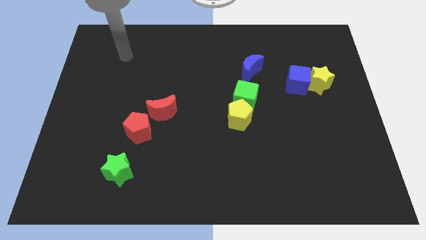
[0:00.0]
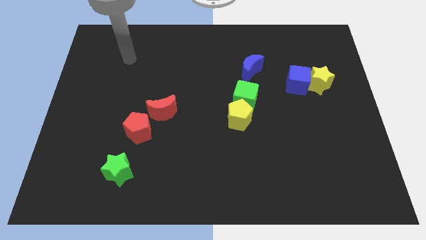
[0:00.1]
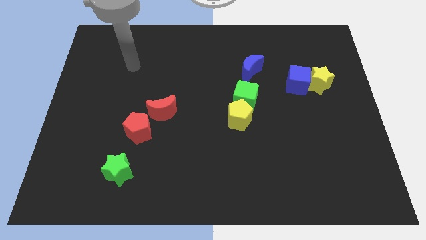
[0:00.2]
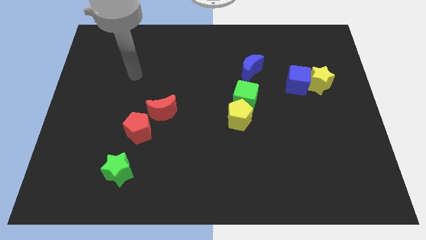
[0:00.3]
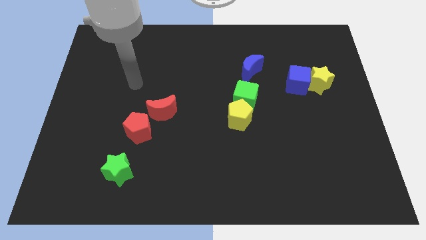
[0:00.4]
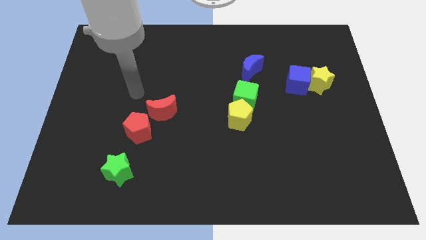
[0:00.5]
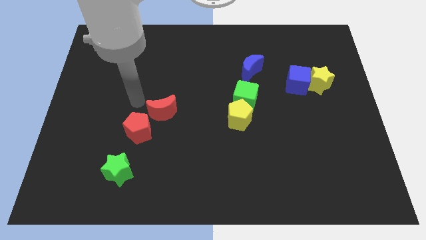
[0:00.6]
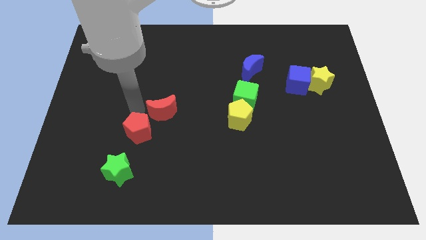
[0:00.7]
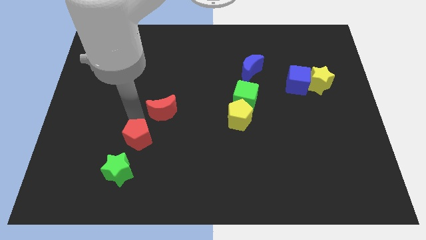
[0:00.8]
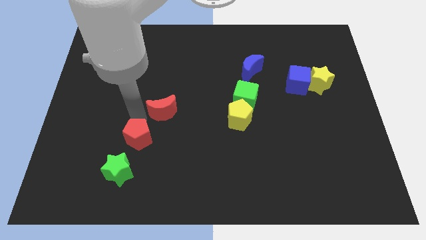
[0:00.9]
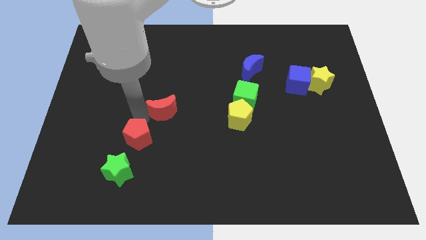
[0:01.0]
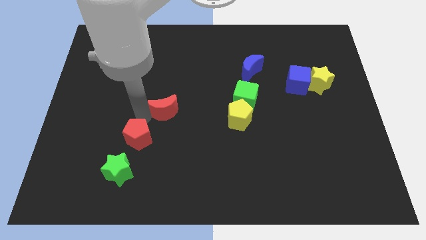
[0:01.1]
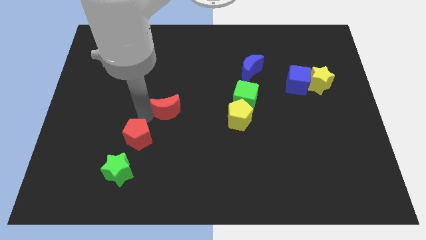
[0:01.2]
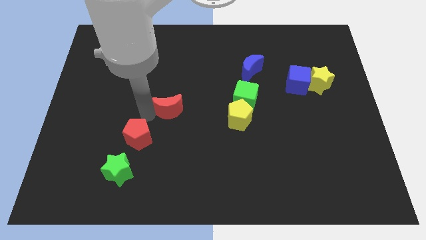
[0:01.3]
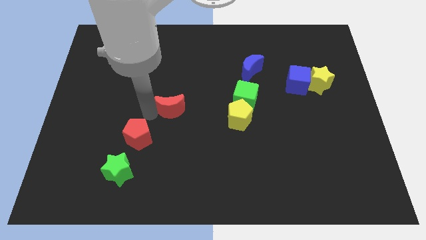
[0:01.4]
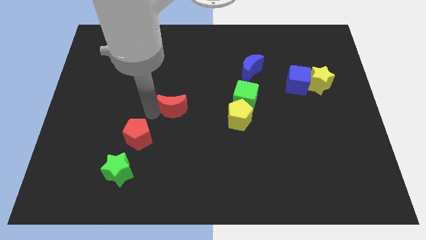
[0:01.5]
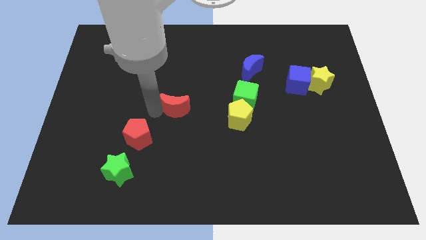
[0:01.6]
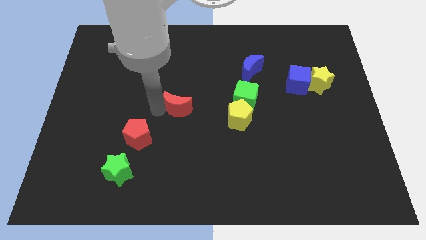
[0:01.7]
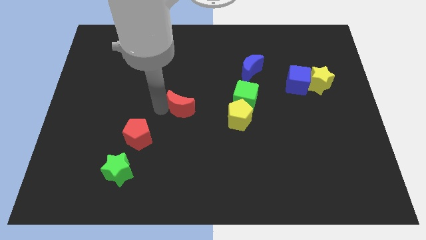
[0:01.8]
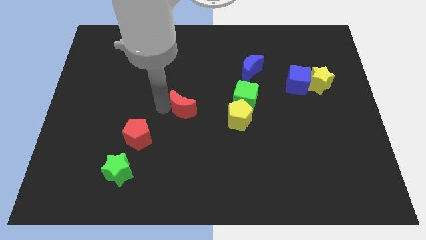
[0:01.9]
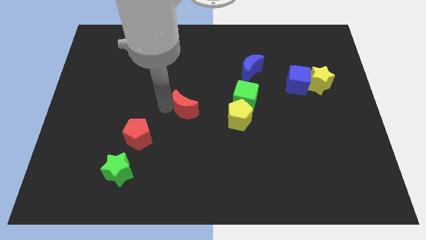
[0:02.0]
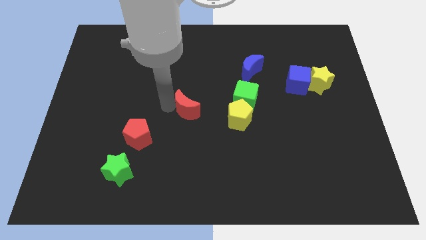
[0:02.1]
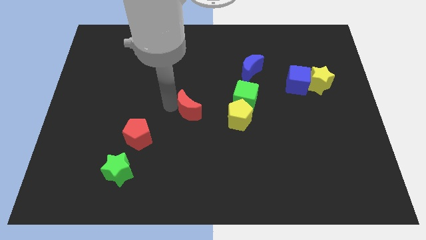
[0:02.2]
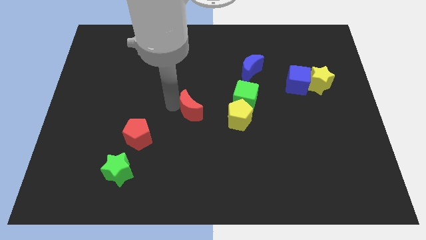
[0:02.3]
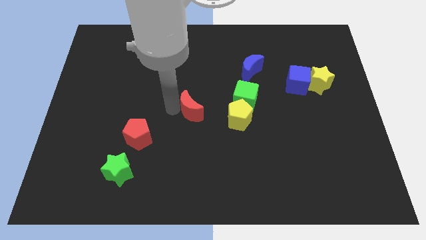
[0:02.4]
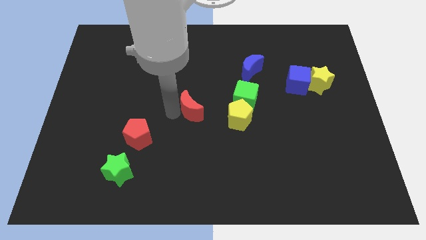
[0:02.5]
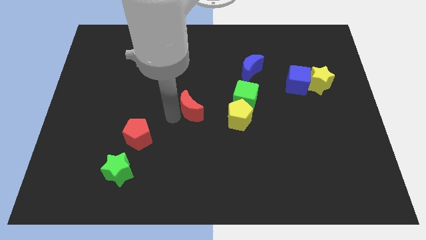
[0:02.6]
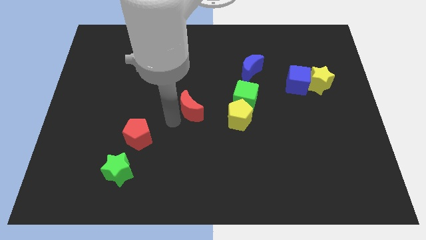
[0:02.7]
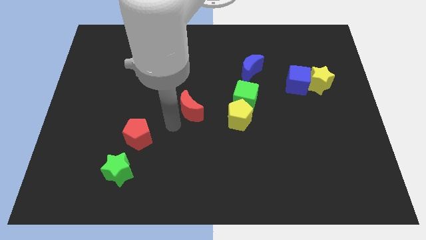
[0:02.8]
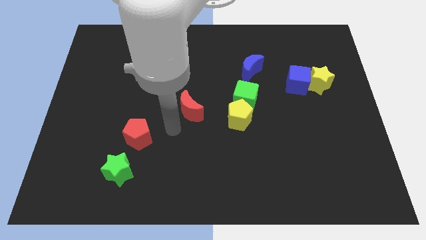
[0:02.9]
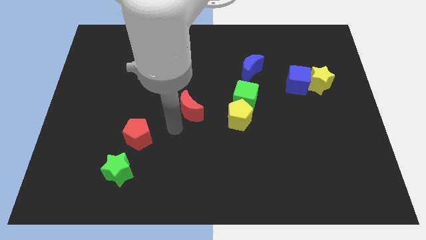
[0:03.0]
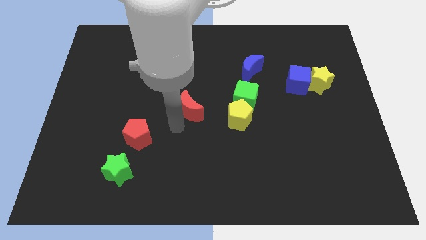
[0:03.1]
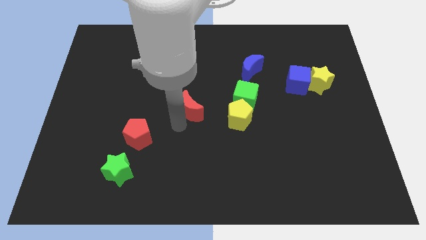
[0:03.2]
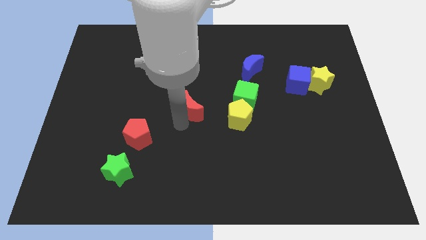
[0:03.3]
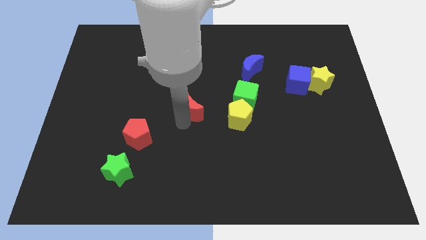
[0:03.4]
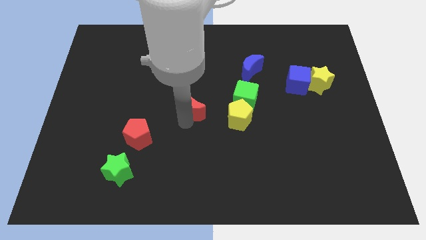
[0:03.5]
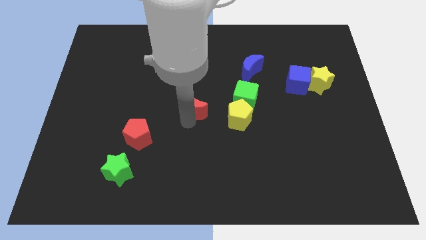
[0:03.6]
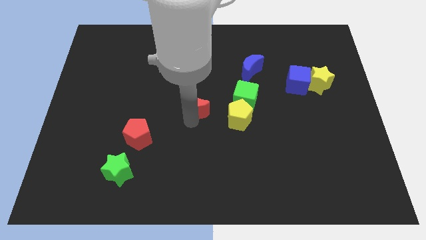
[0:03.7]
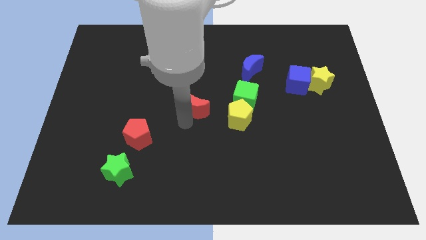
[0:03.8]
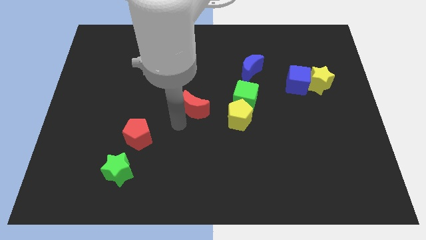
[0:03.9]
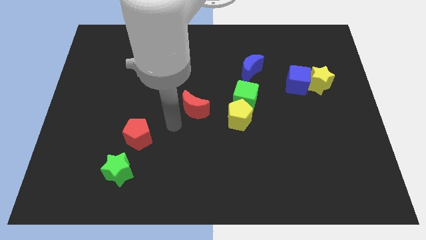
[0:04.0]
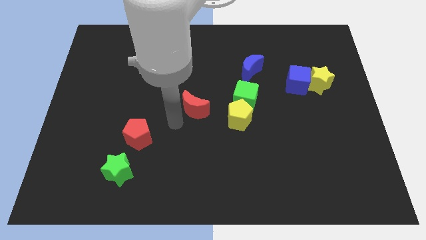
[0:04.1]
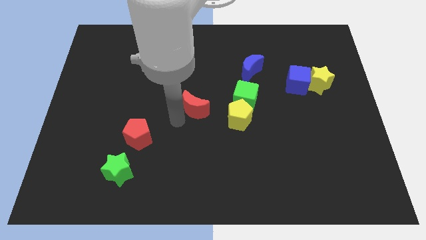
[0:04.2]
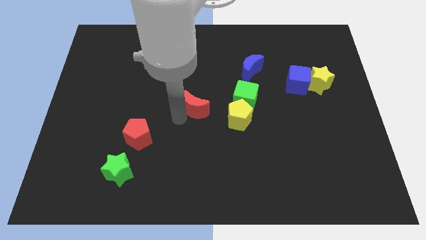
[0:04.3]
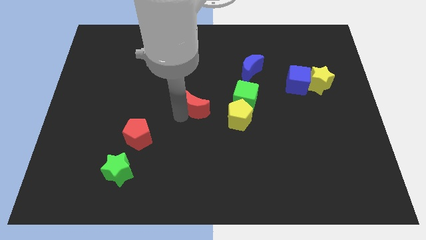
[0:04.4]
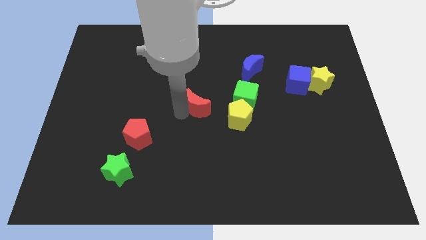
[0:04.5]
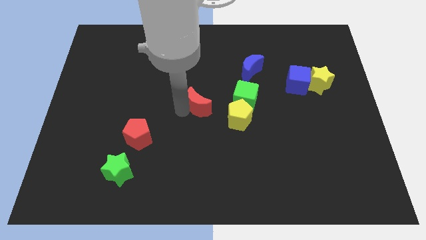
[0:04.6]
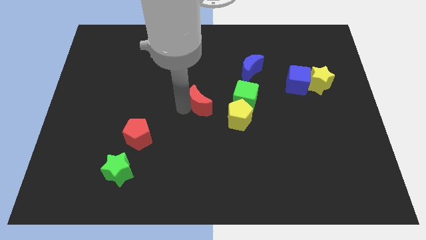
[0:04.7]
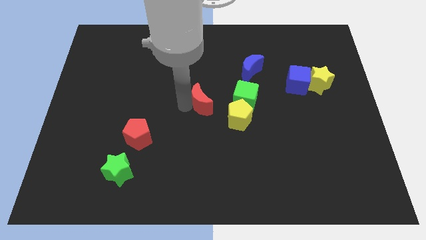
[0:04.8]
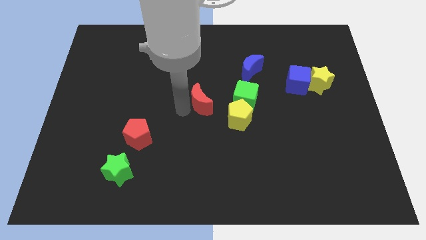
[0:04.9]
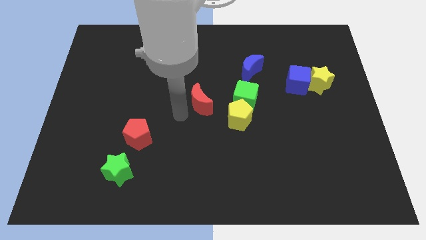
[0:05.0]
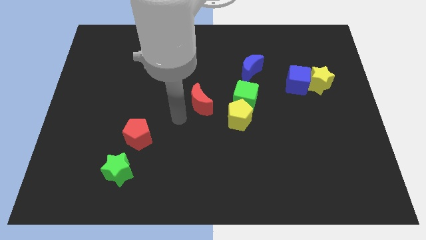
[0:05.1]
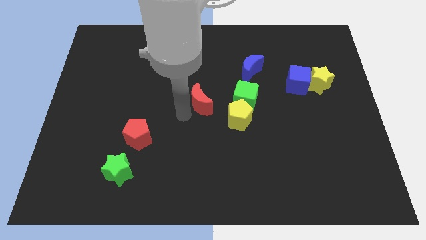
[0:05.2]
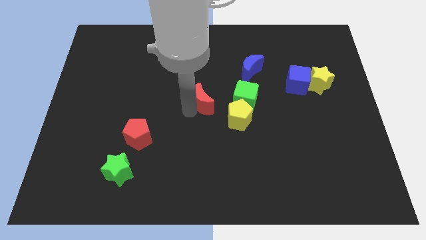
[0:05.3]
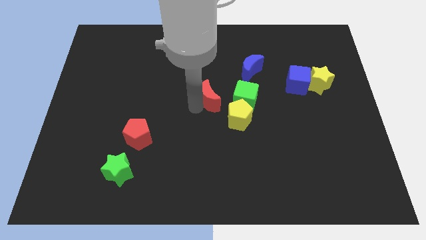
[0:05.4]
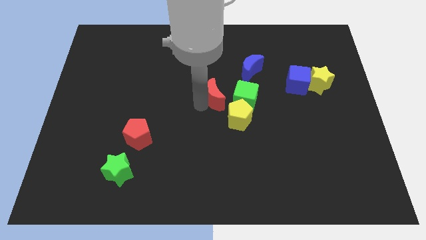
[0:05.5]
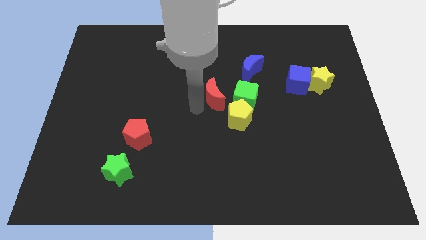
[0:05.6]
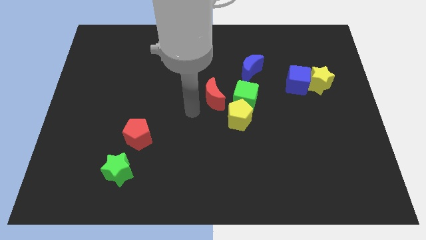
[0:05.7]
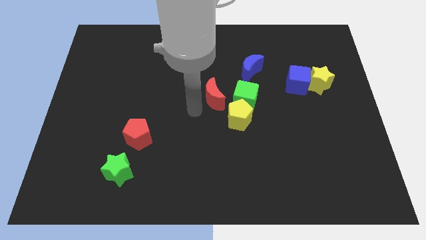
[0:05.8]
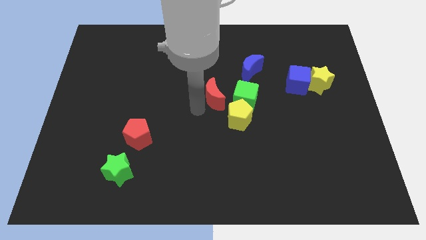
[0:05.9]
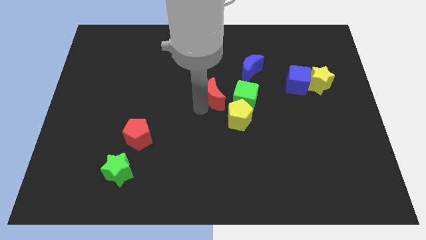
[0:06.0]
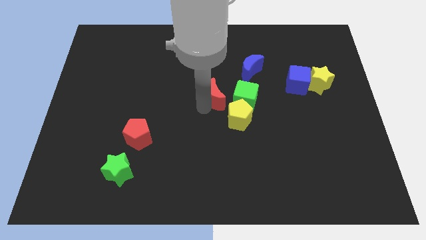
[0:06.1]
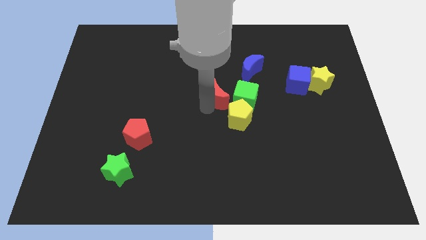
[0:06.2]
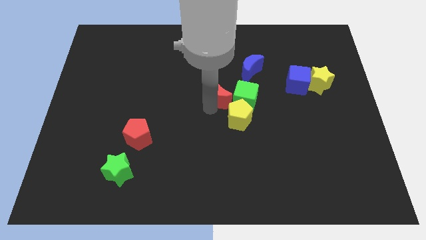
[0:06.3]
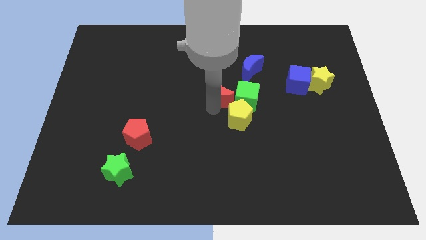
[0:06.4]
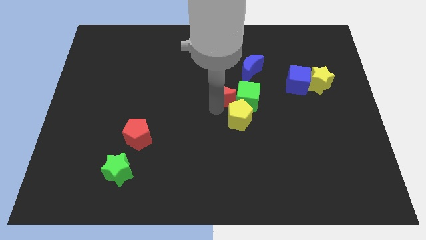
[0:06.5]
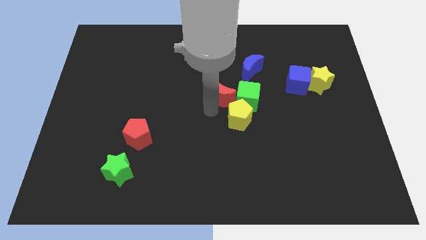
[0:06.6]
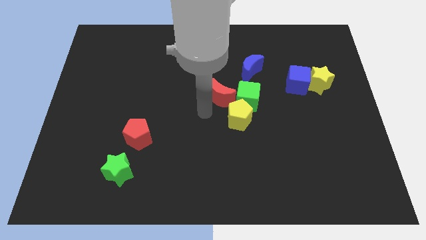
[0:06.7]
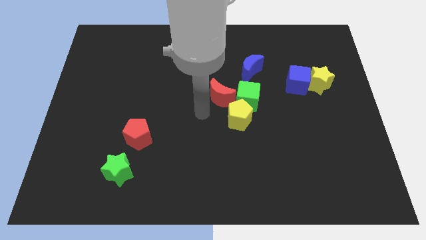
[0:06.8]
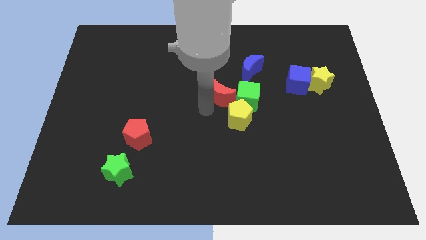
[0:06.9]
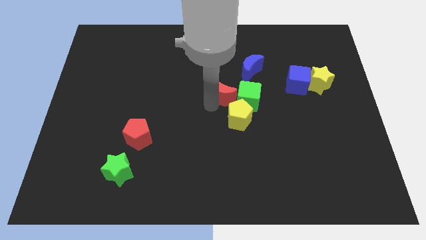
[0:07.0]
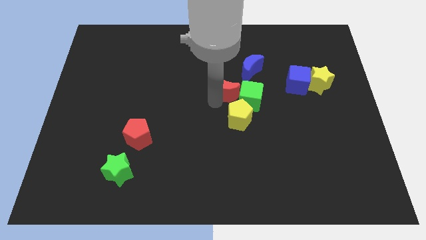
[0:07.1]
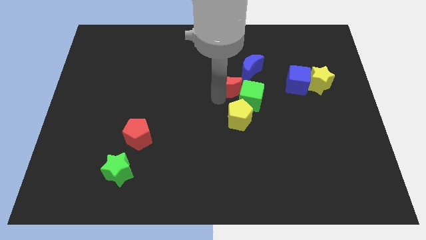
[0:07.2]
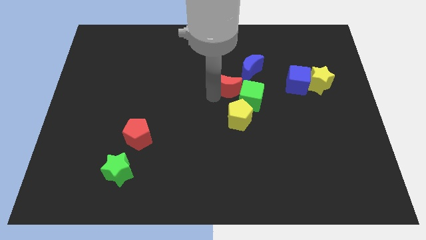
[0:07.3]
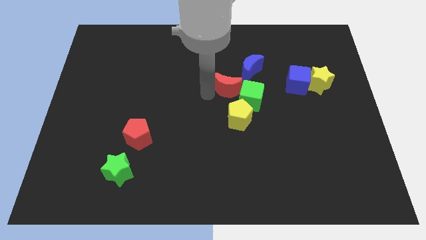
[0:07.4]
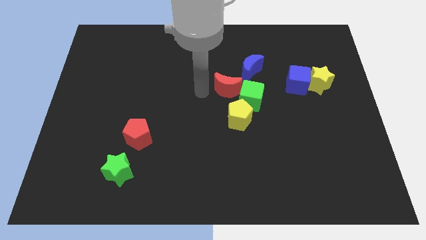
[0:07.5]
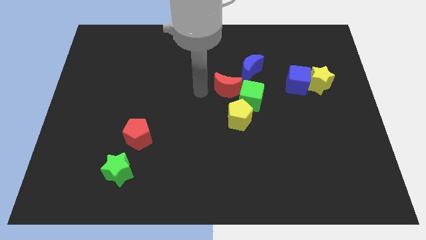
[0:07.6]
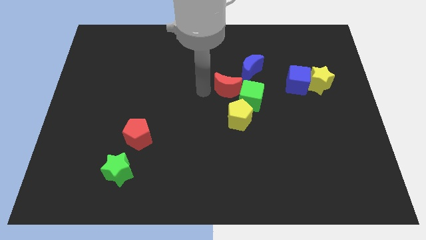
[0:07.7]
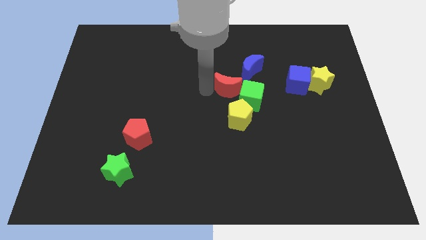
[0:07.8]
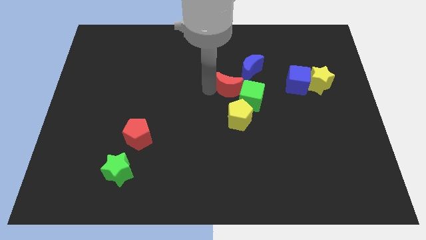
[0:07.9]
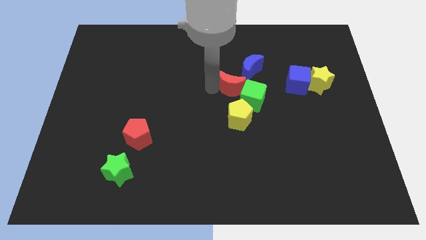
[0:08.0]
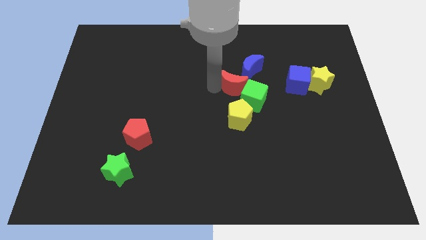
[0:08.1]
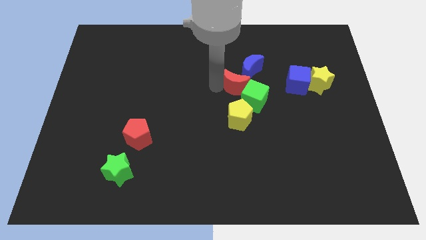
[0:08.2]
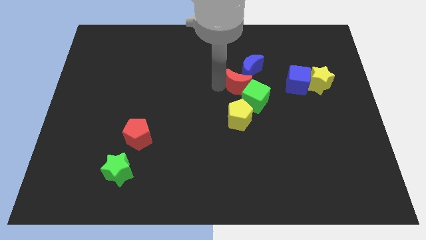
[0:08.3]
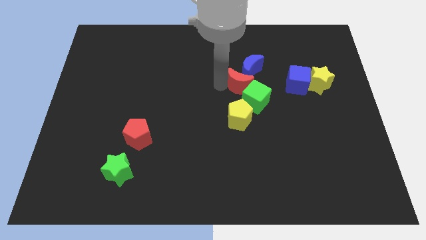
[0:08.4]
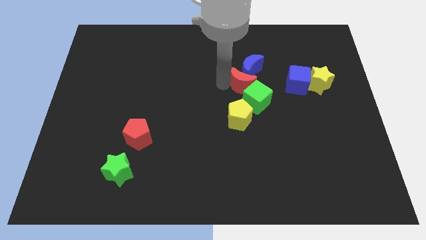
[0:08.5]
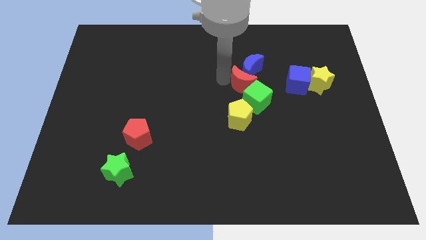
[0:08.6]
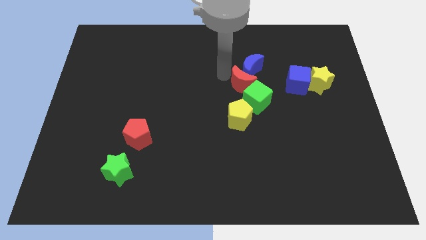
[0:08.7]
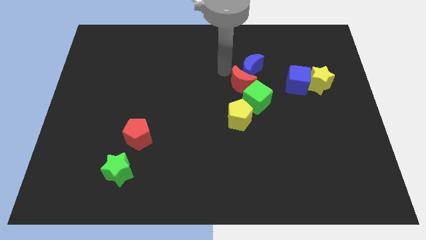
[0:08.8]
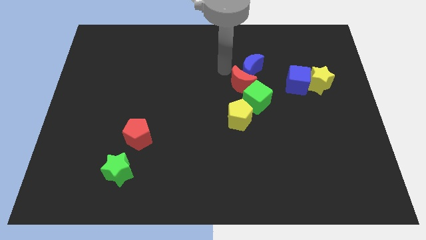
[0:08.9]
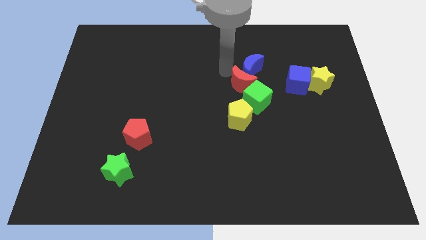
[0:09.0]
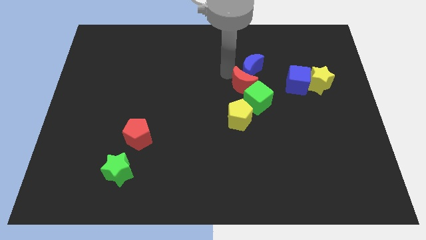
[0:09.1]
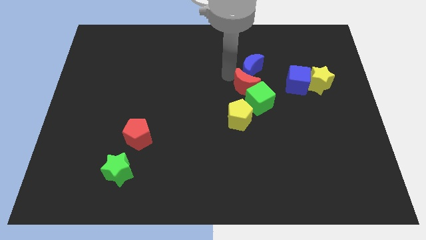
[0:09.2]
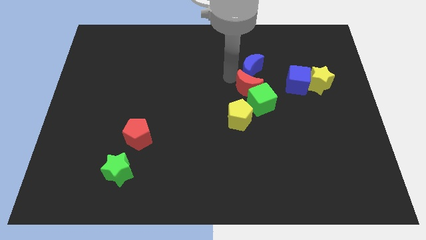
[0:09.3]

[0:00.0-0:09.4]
move the red moon diagonally up and to the right of the yellow pentagon
